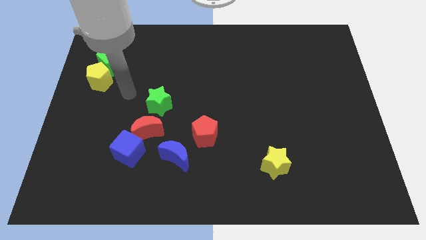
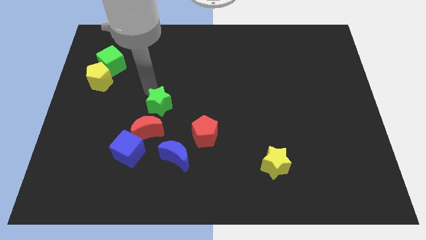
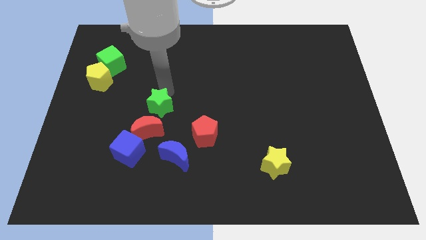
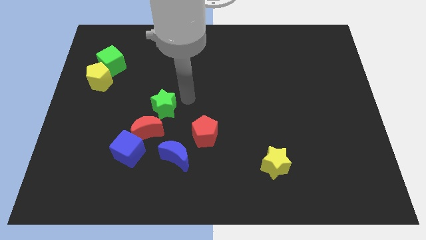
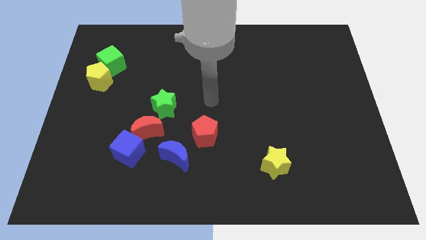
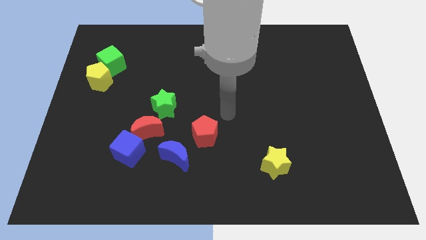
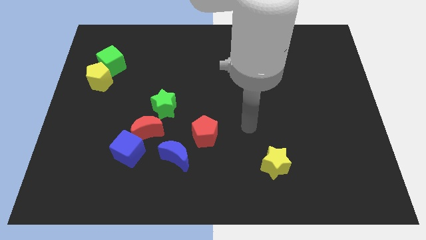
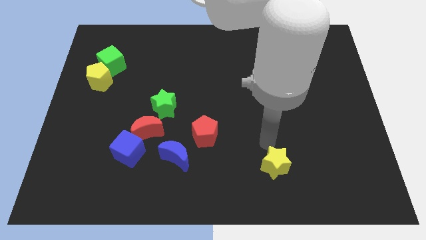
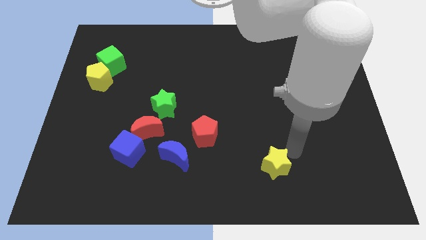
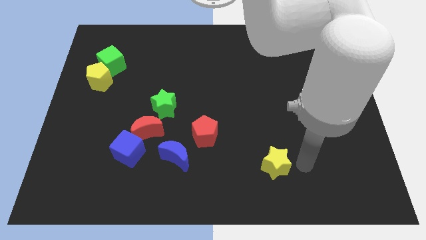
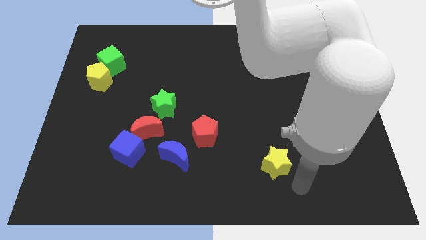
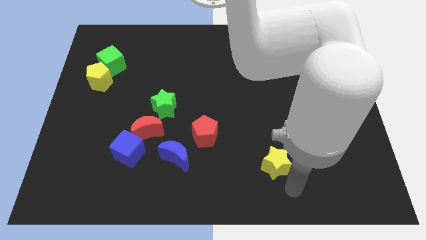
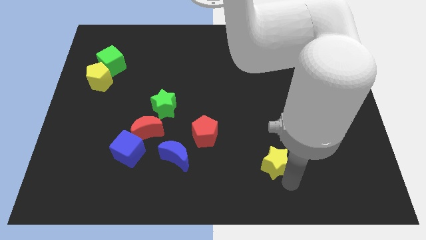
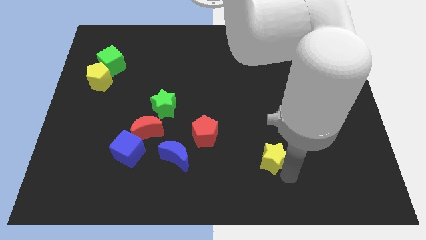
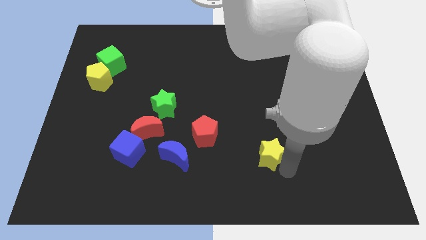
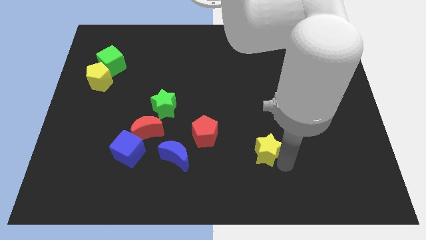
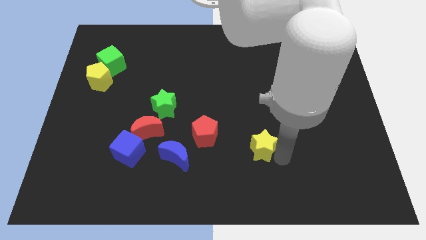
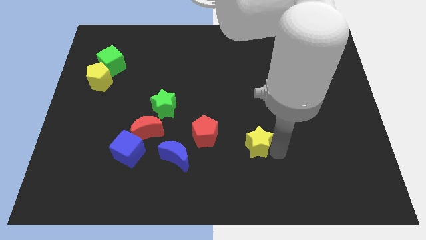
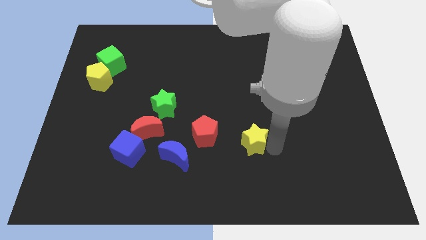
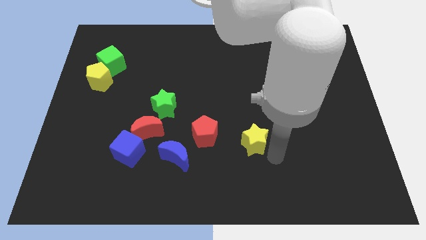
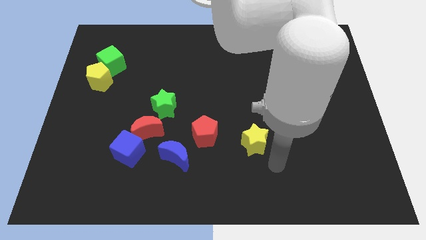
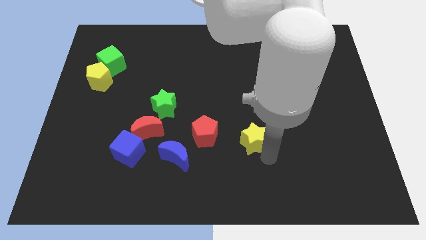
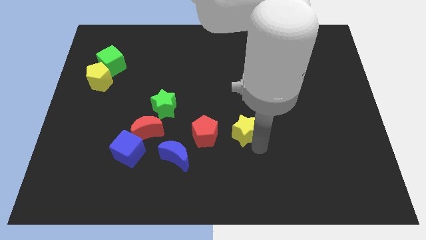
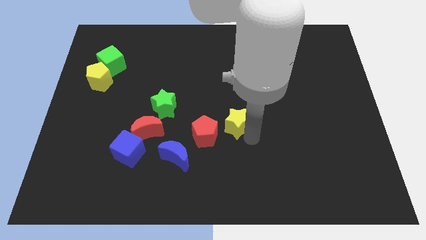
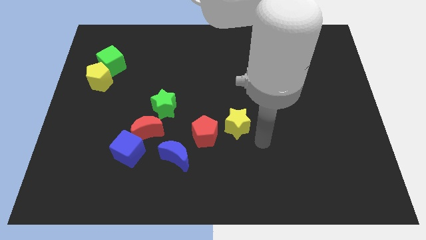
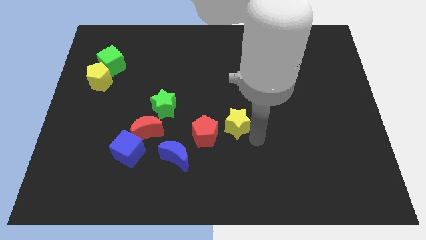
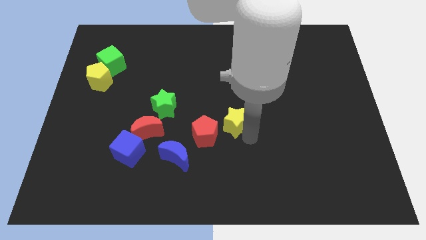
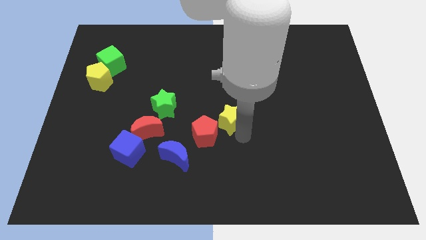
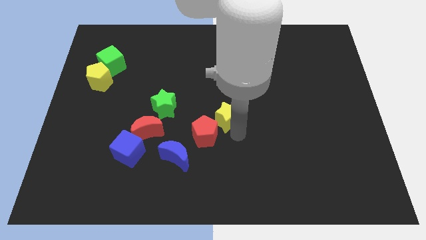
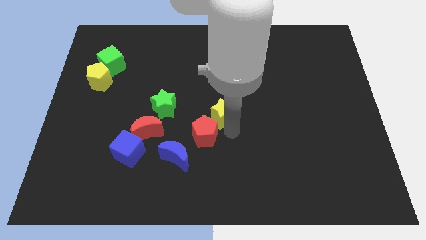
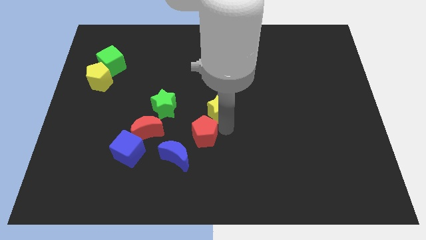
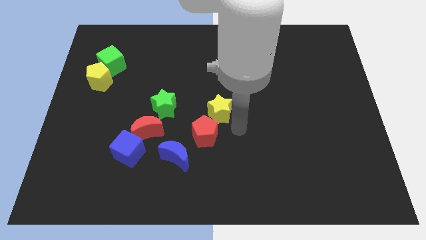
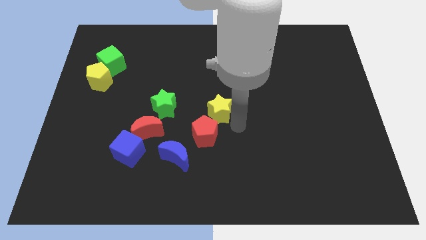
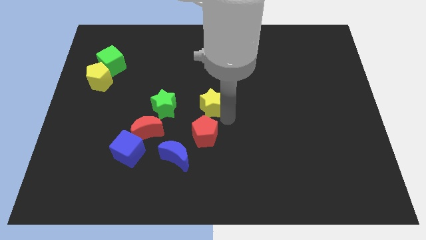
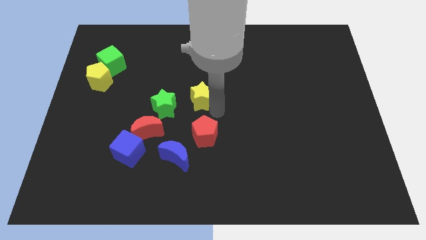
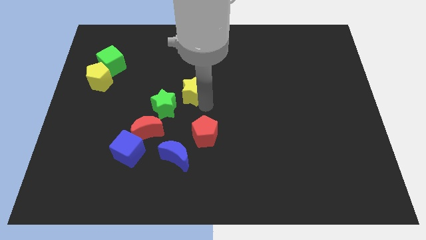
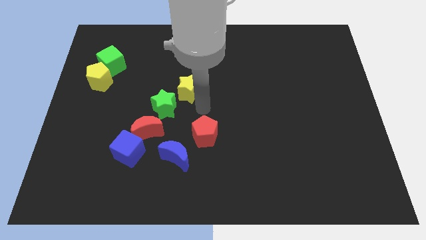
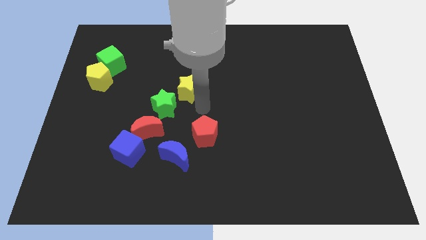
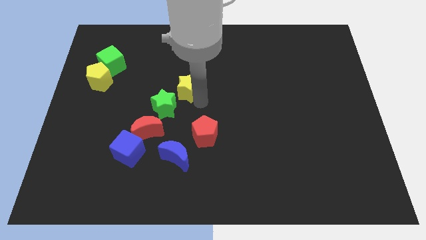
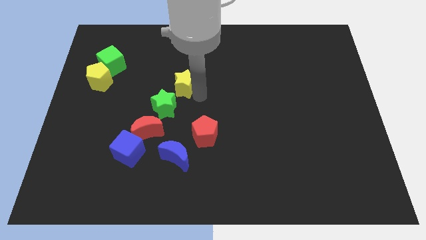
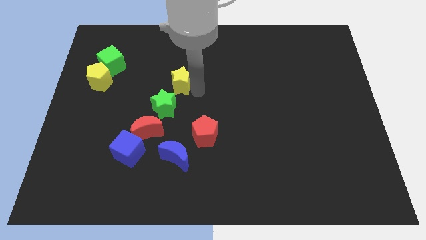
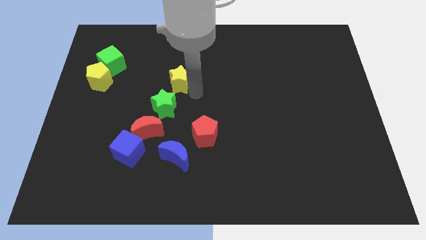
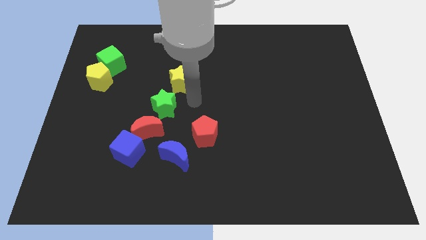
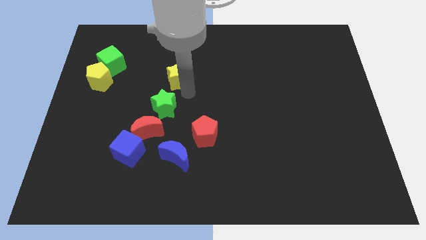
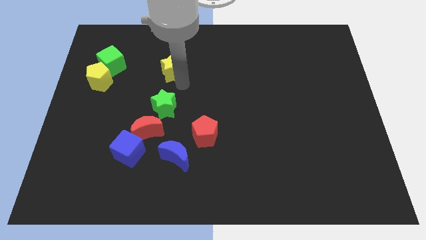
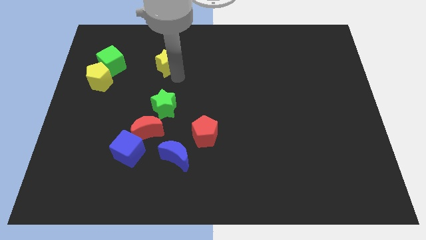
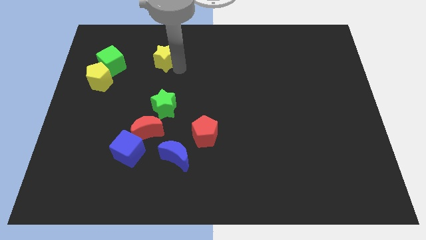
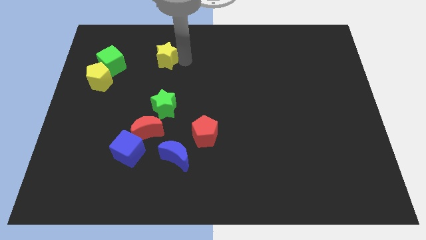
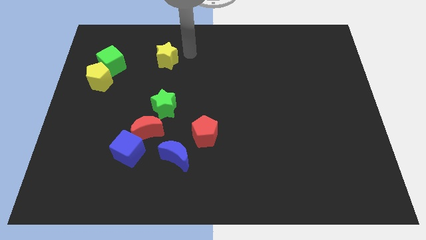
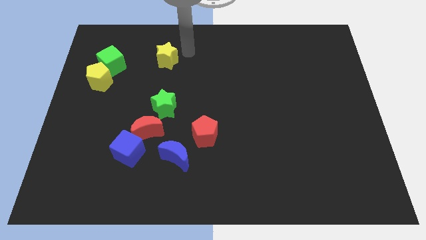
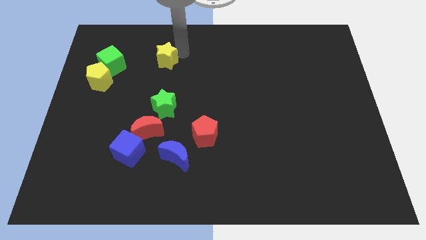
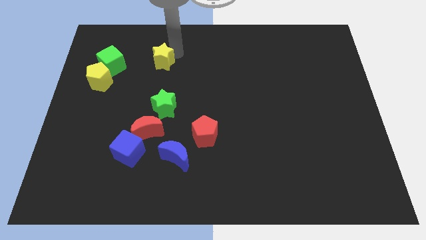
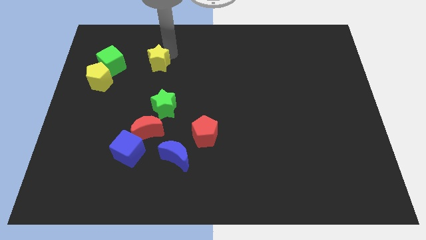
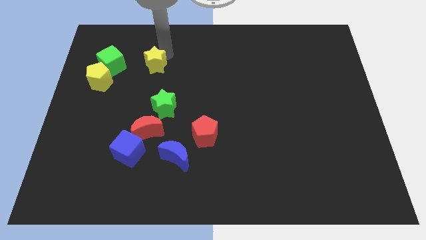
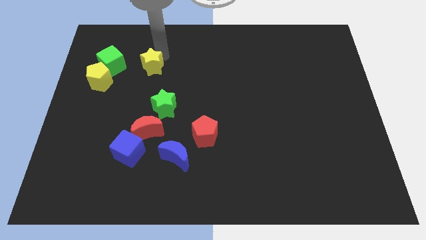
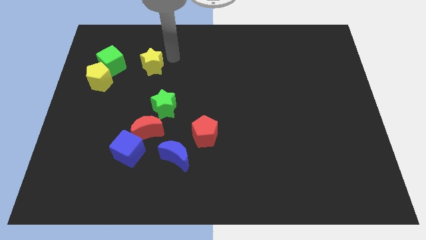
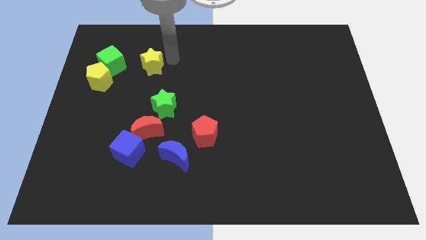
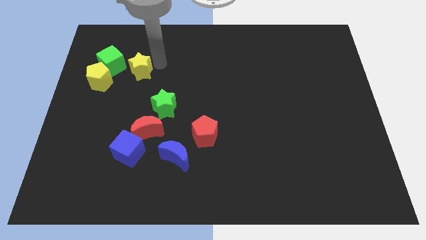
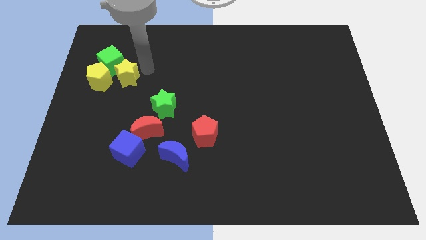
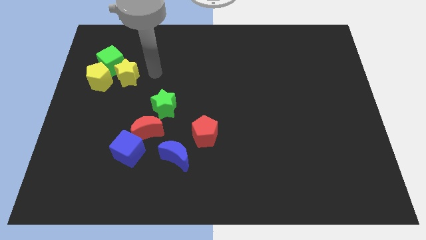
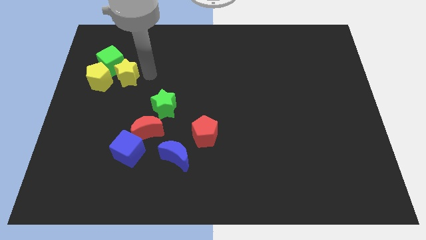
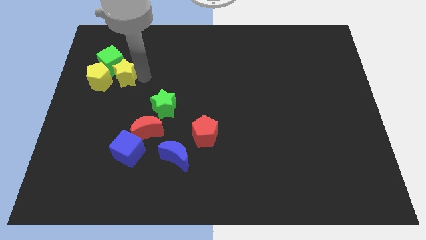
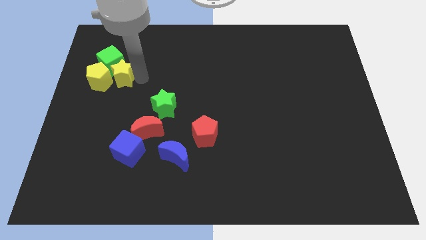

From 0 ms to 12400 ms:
put the yellow star close to the yellow pentagon

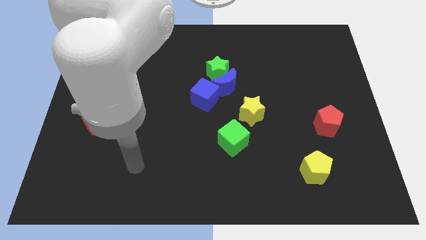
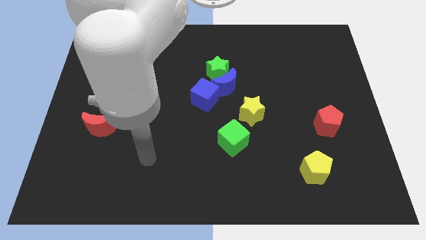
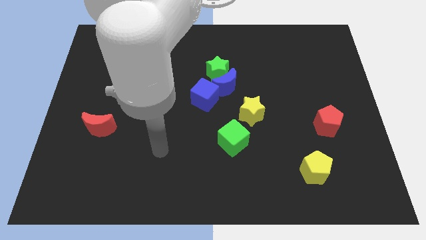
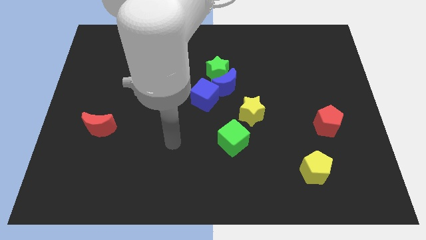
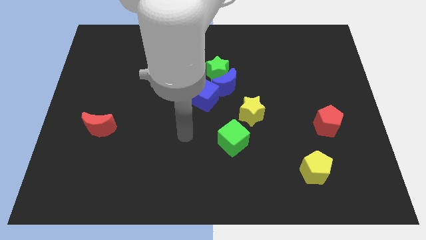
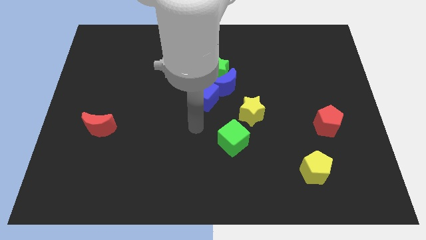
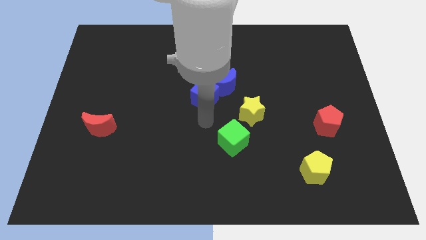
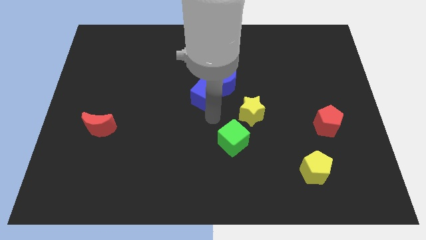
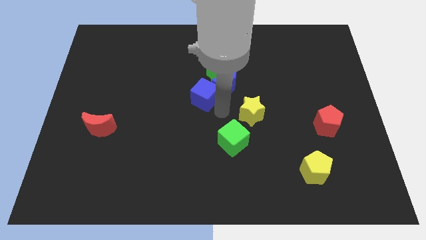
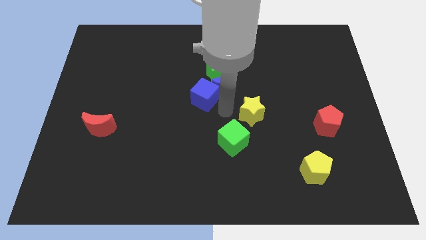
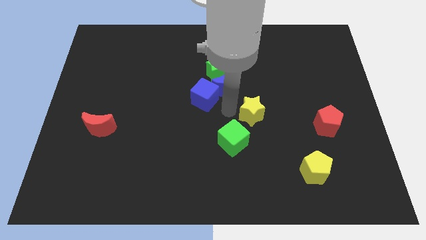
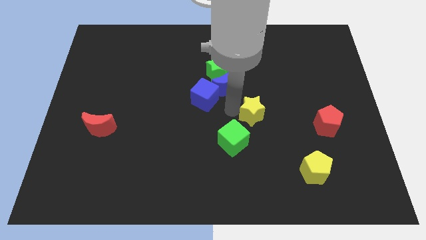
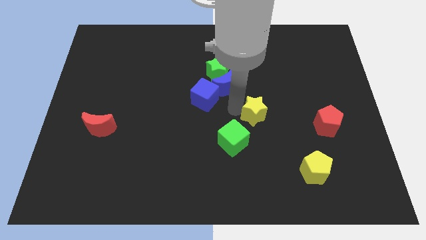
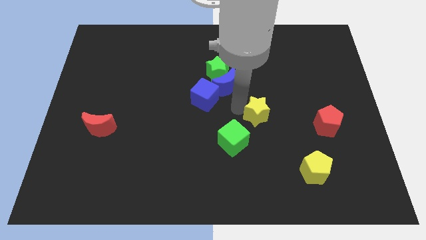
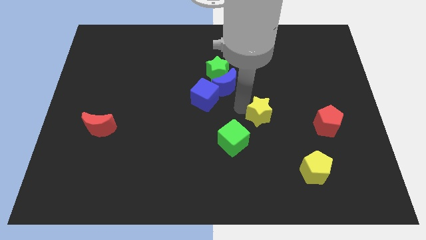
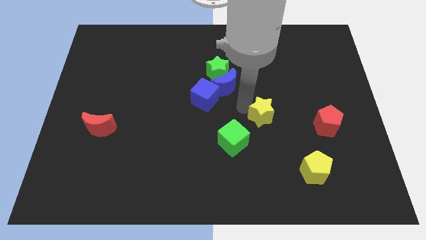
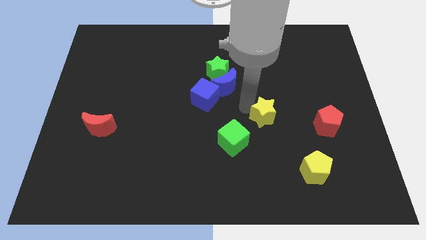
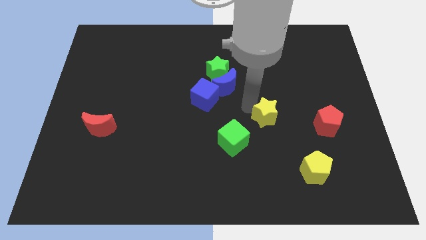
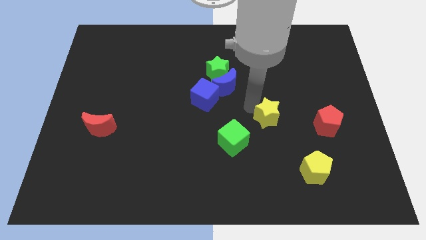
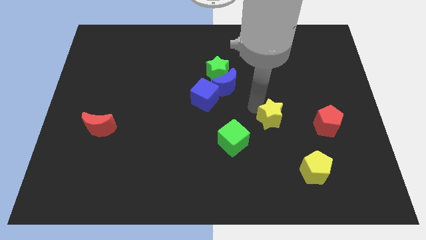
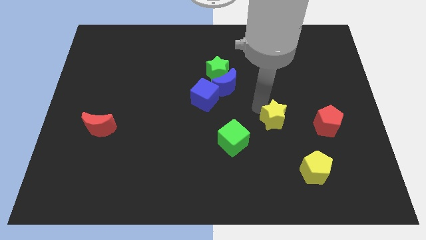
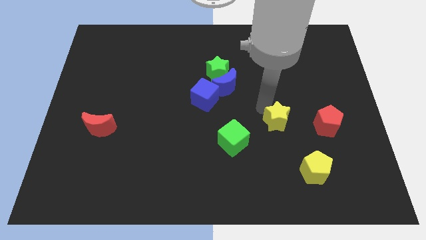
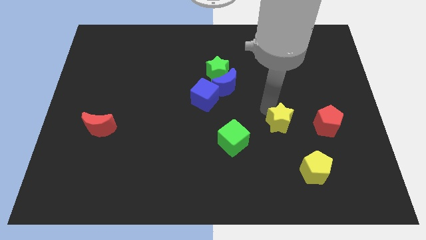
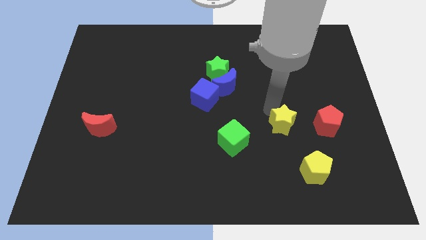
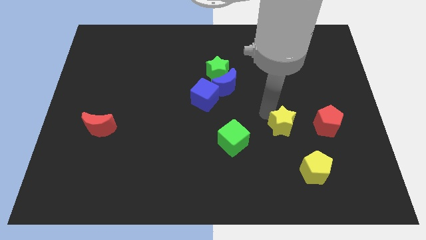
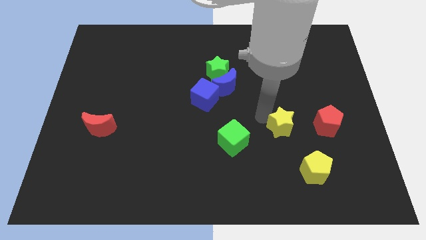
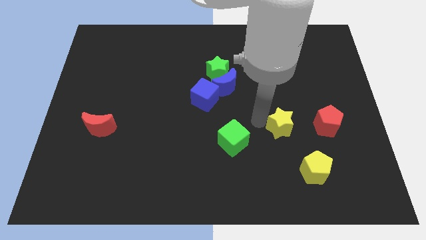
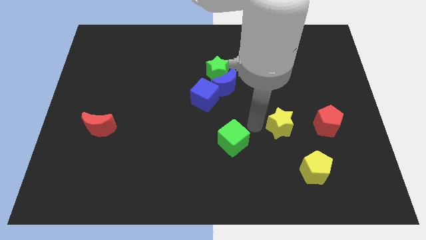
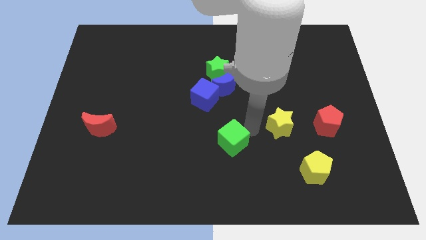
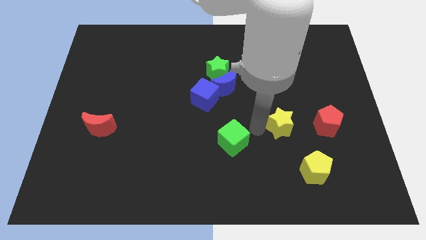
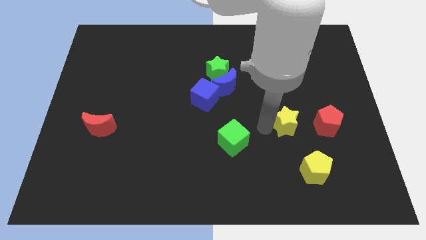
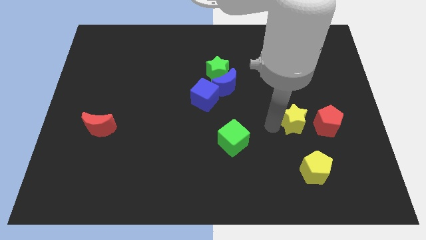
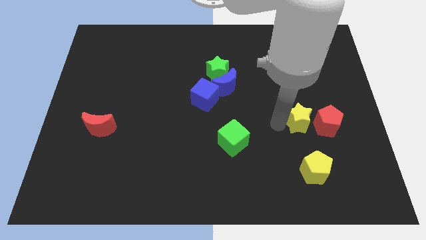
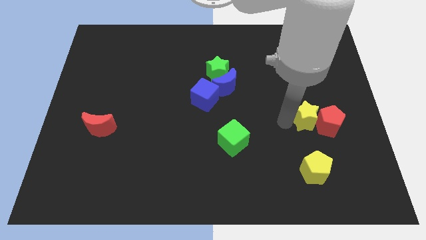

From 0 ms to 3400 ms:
put the yellow star next to the red pentagon
